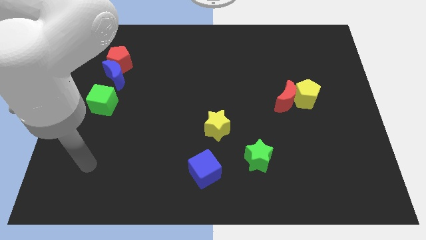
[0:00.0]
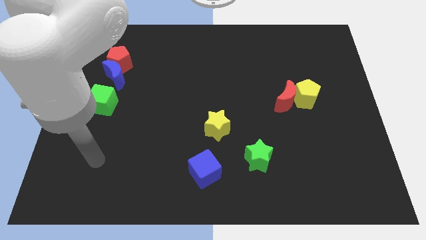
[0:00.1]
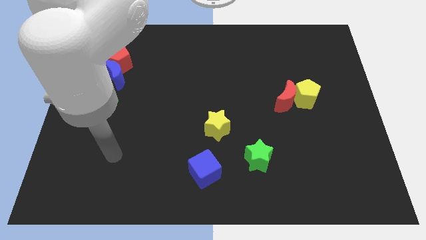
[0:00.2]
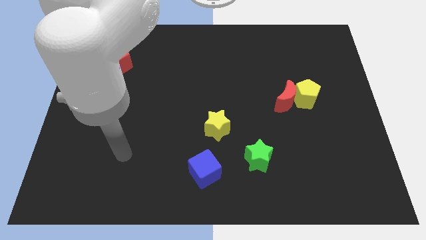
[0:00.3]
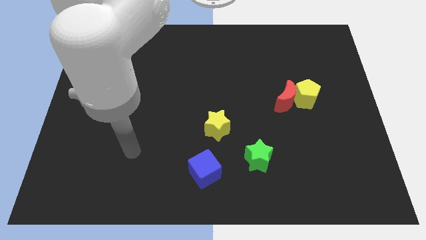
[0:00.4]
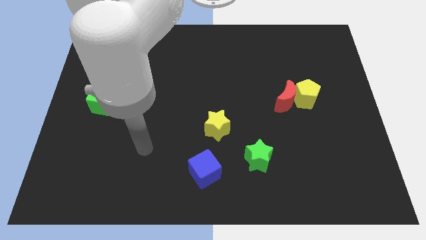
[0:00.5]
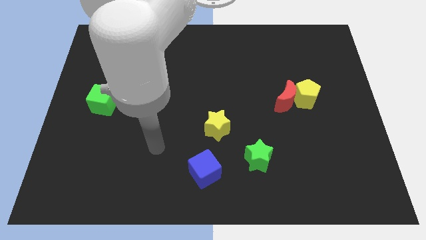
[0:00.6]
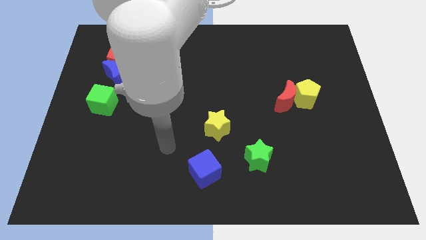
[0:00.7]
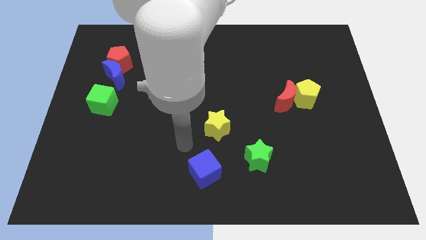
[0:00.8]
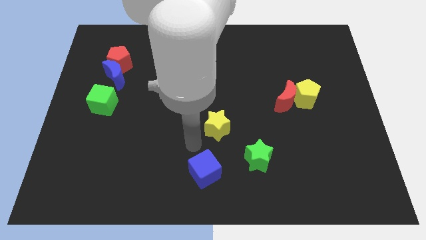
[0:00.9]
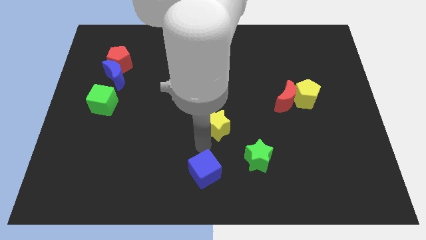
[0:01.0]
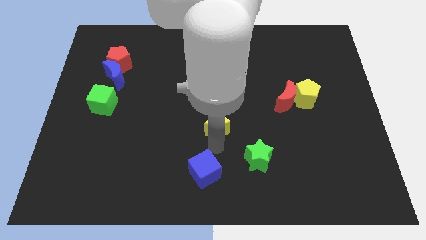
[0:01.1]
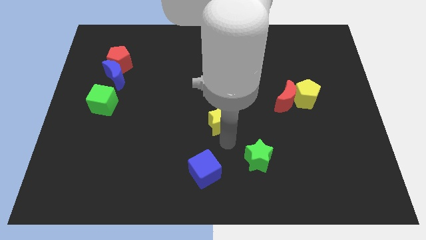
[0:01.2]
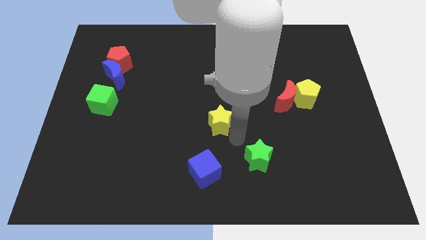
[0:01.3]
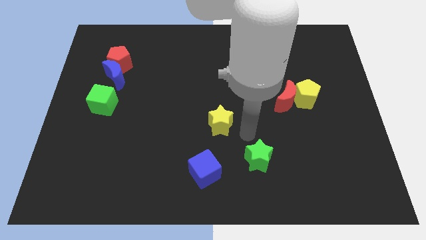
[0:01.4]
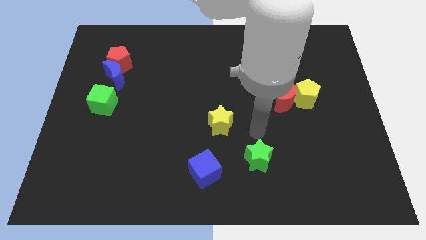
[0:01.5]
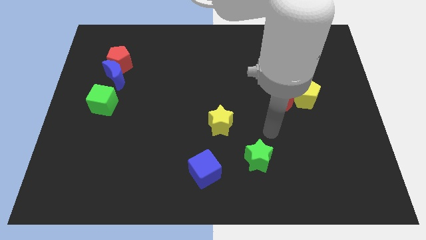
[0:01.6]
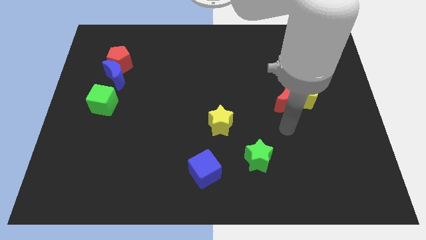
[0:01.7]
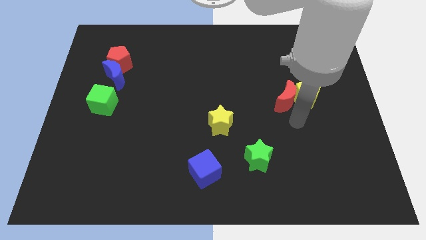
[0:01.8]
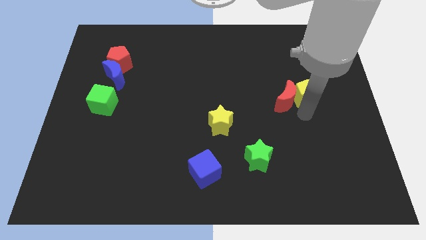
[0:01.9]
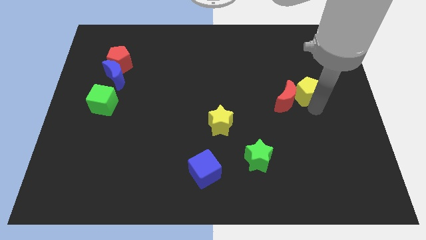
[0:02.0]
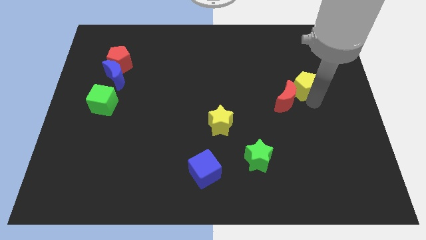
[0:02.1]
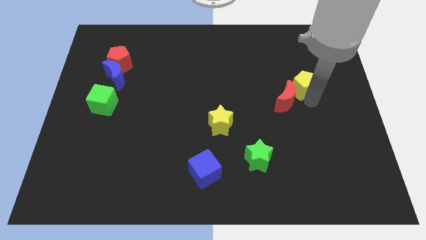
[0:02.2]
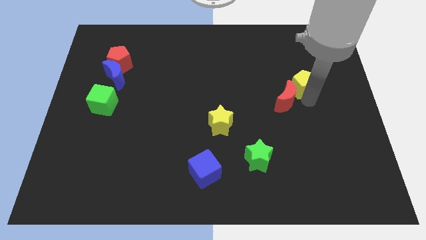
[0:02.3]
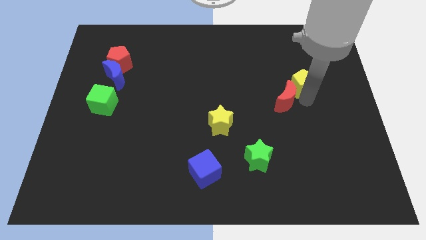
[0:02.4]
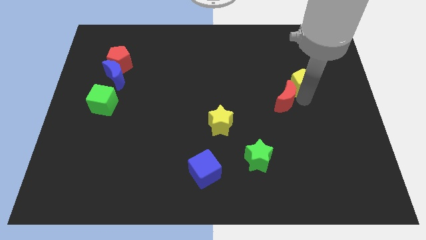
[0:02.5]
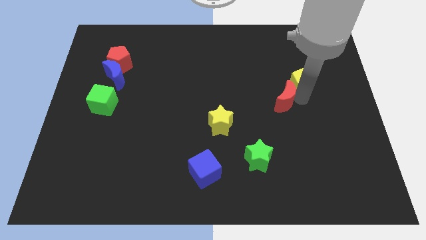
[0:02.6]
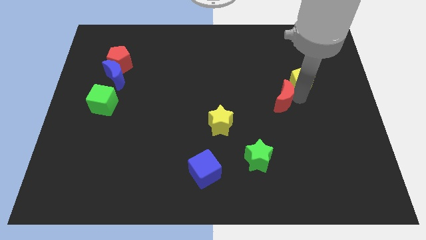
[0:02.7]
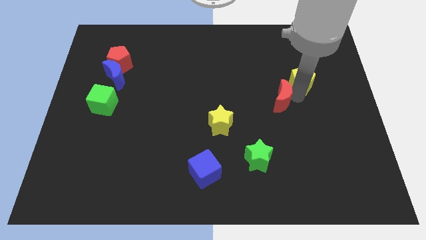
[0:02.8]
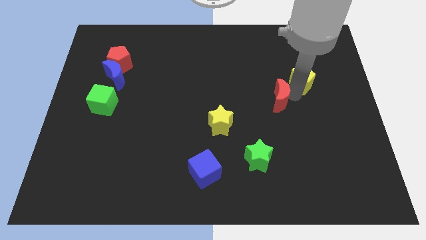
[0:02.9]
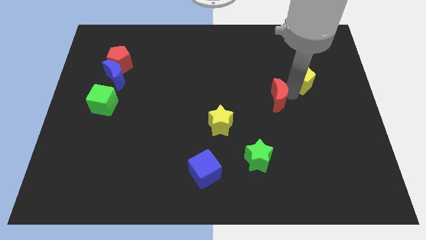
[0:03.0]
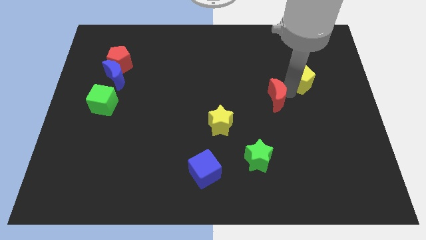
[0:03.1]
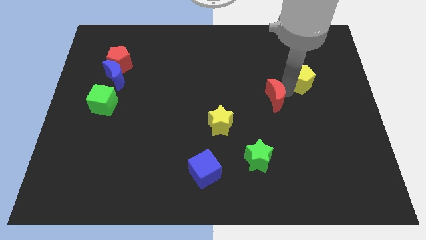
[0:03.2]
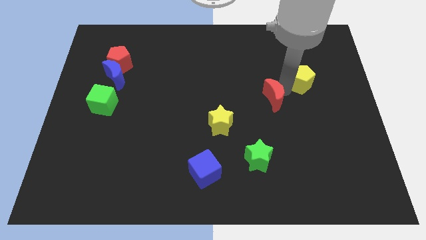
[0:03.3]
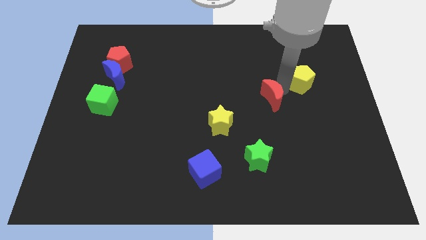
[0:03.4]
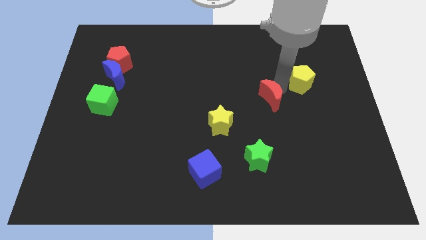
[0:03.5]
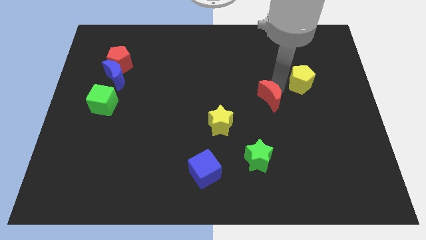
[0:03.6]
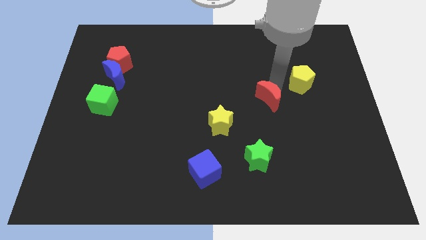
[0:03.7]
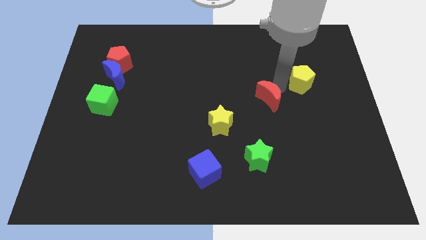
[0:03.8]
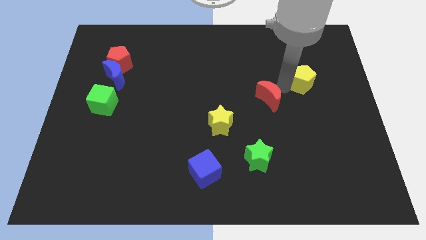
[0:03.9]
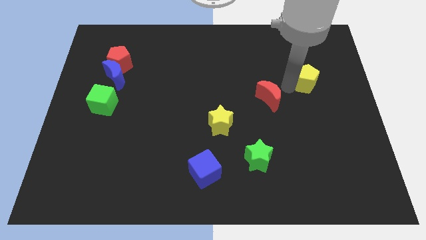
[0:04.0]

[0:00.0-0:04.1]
pull the red moon apart from the yellow pentagon

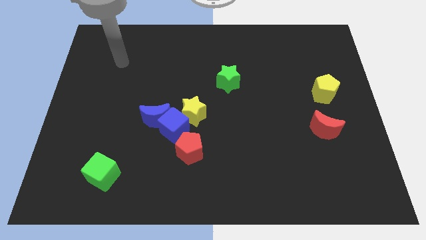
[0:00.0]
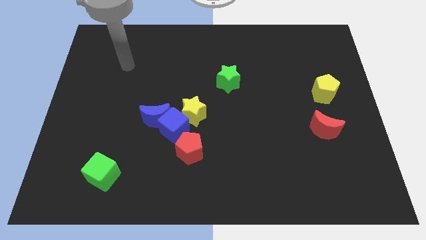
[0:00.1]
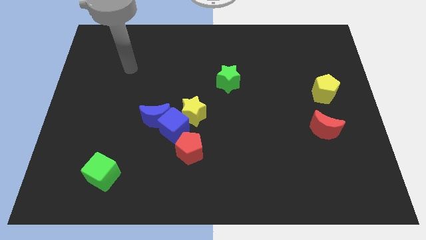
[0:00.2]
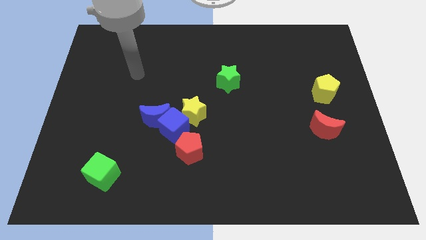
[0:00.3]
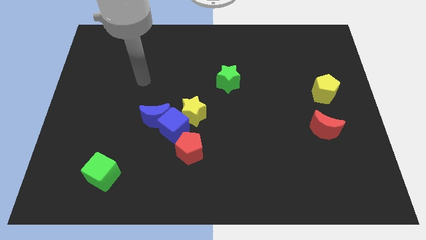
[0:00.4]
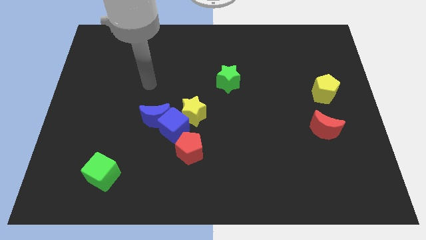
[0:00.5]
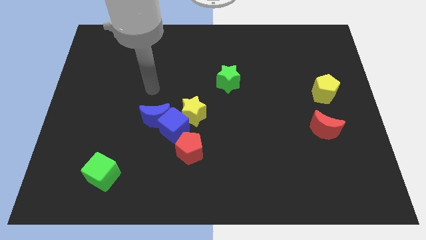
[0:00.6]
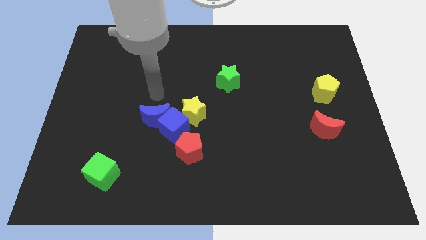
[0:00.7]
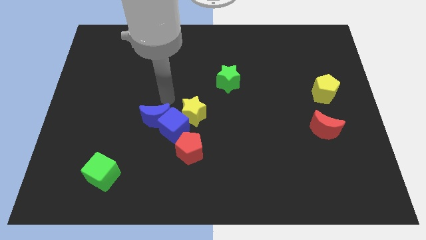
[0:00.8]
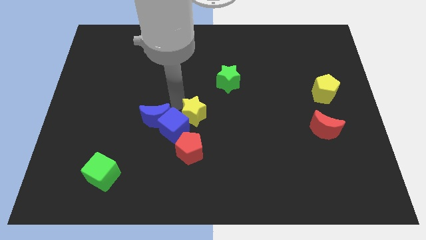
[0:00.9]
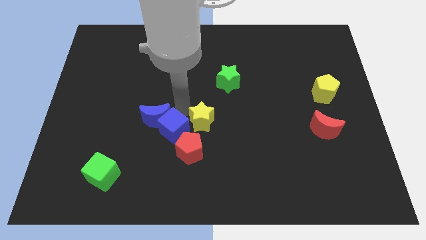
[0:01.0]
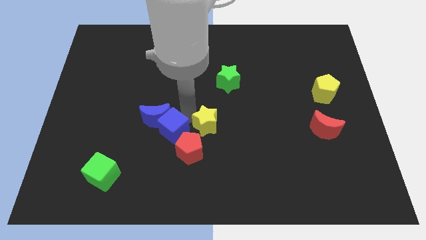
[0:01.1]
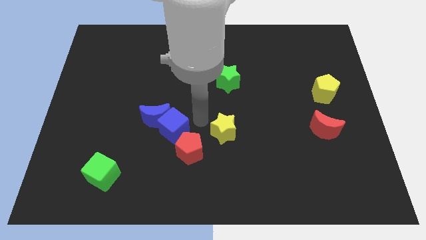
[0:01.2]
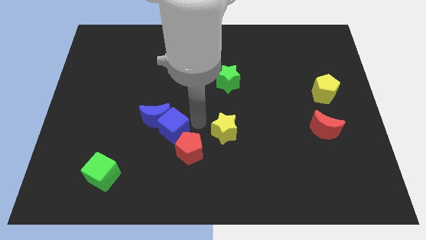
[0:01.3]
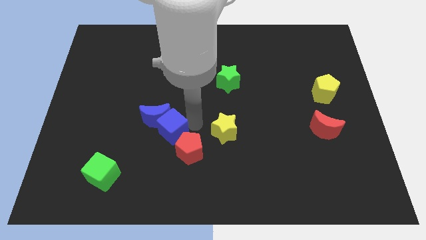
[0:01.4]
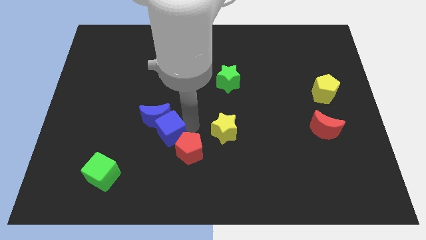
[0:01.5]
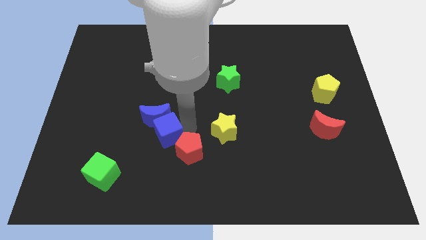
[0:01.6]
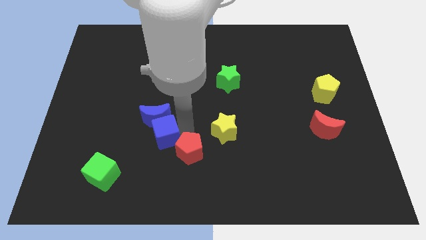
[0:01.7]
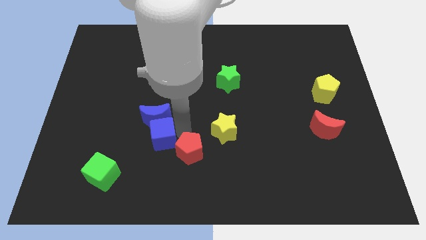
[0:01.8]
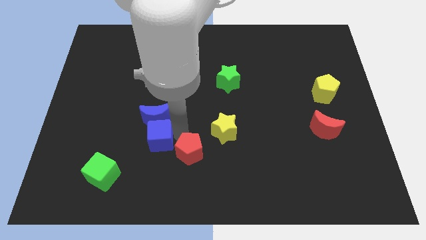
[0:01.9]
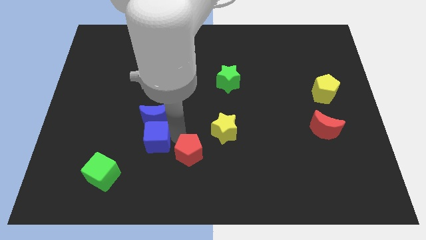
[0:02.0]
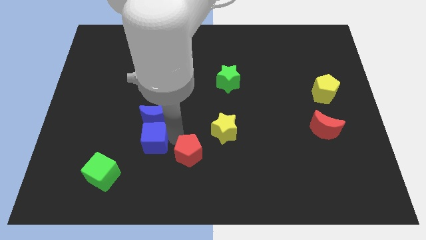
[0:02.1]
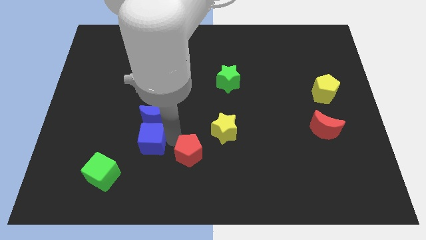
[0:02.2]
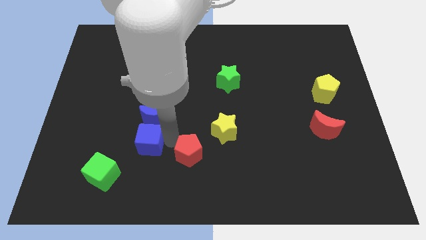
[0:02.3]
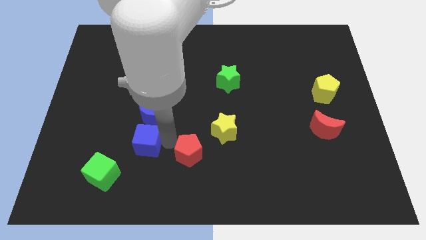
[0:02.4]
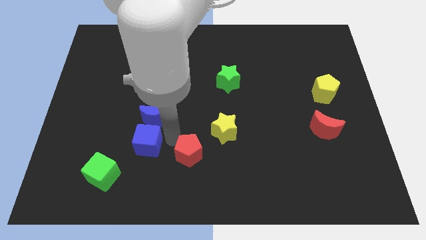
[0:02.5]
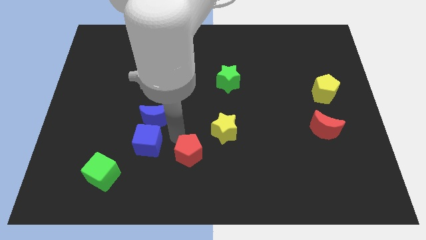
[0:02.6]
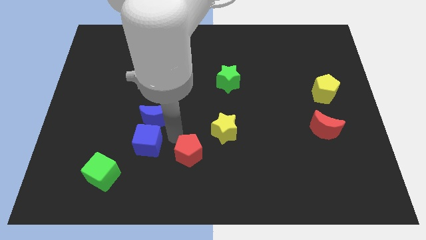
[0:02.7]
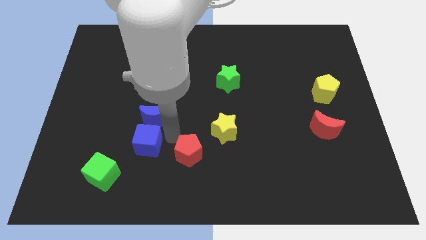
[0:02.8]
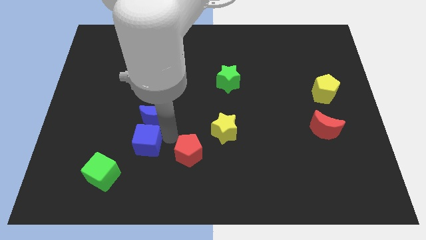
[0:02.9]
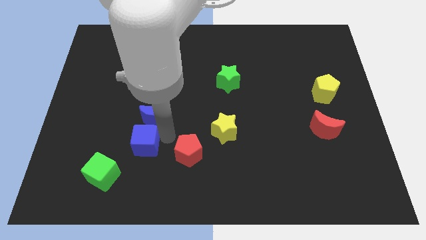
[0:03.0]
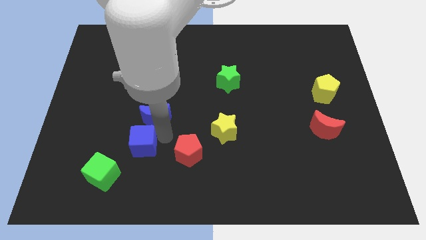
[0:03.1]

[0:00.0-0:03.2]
move the blue cube away from the blue moon, yellow star, and red pentagon

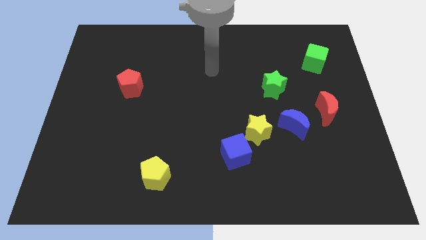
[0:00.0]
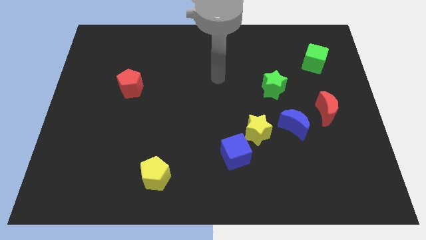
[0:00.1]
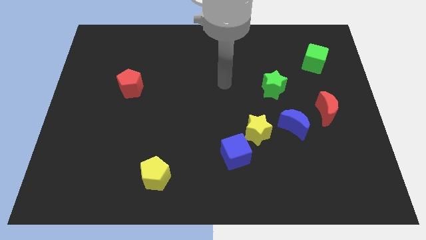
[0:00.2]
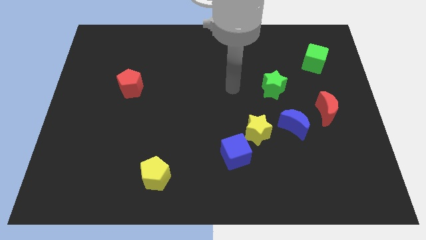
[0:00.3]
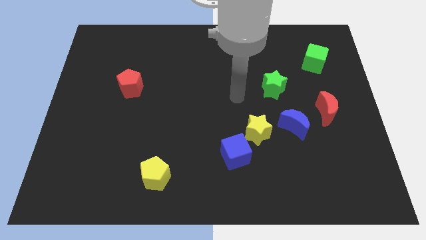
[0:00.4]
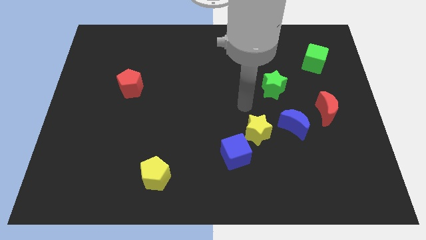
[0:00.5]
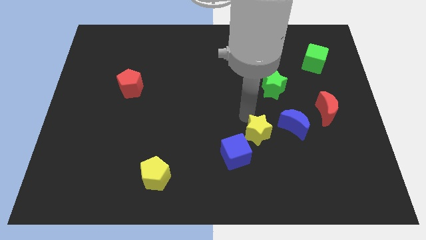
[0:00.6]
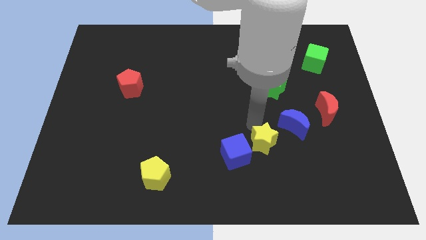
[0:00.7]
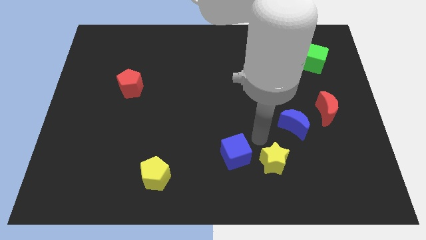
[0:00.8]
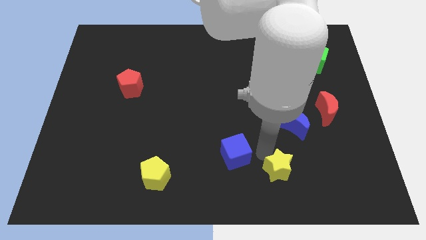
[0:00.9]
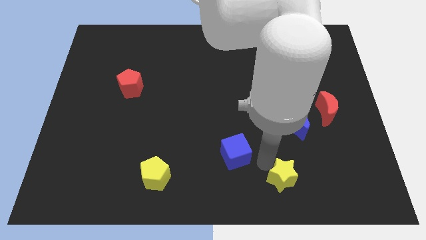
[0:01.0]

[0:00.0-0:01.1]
separate the blue cube from the yellow star

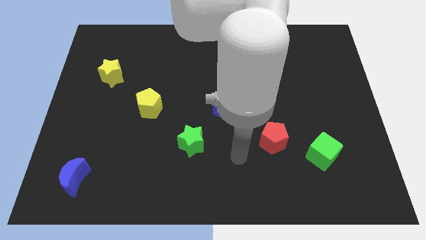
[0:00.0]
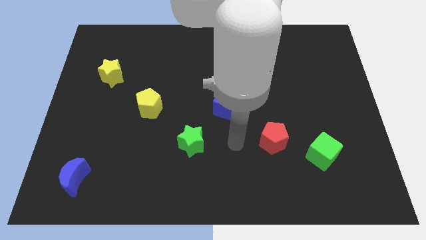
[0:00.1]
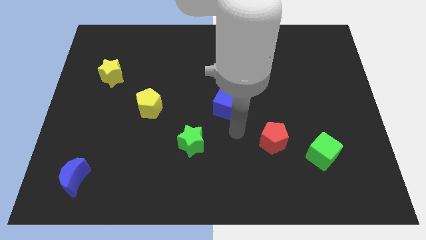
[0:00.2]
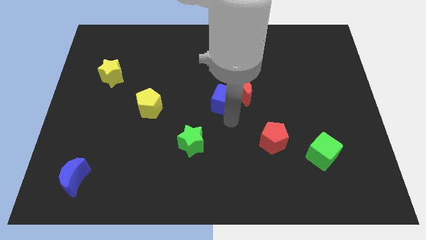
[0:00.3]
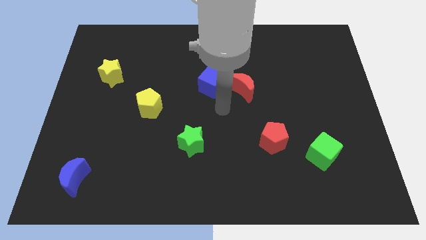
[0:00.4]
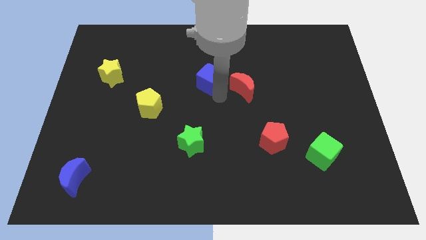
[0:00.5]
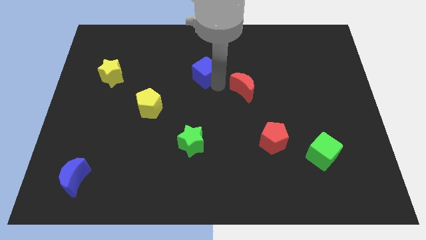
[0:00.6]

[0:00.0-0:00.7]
move the red moon away from the blue cube

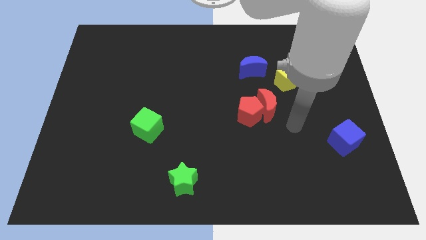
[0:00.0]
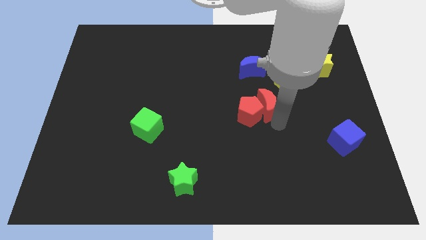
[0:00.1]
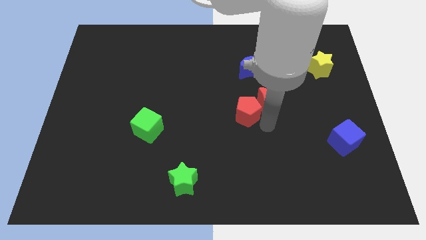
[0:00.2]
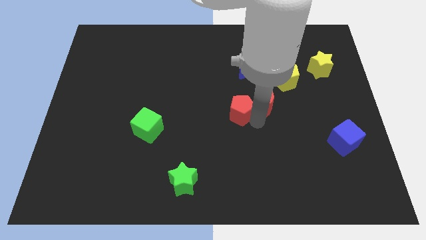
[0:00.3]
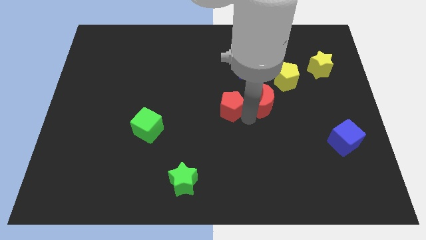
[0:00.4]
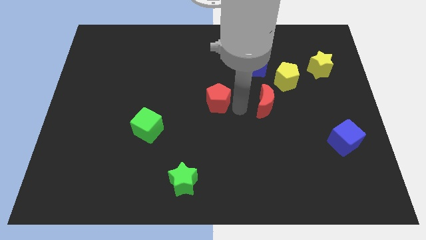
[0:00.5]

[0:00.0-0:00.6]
separate the red moon from the red pentagon
